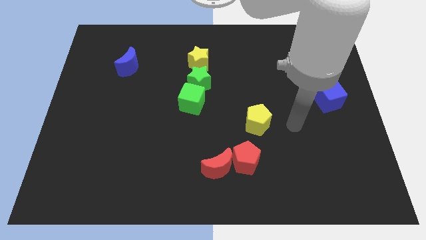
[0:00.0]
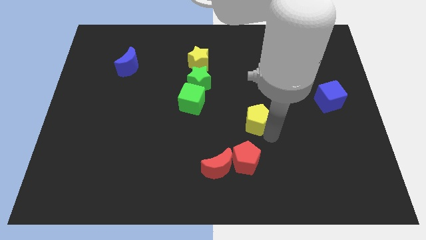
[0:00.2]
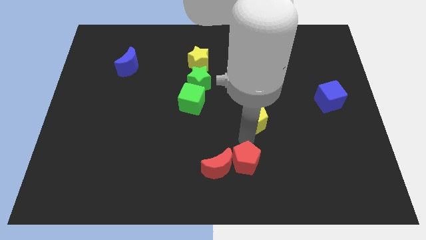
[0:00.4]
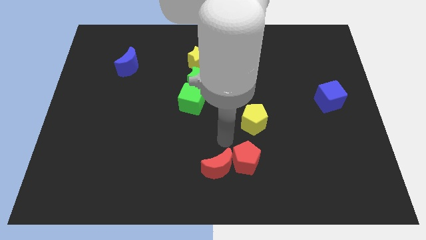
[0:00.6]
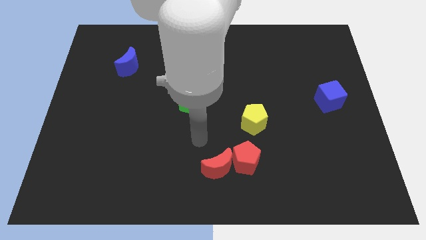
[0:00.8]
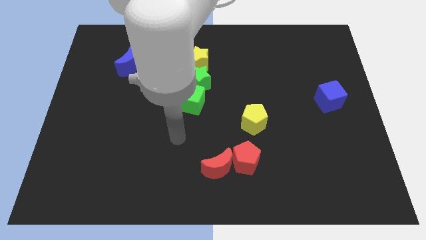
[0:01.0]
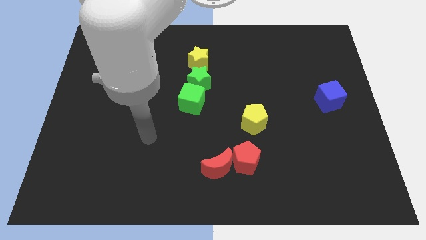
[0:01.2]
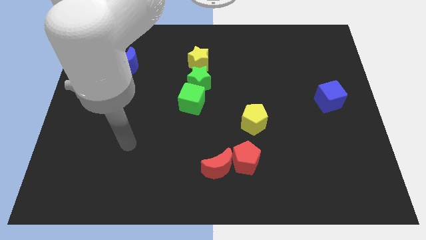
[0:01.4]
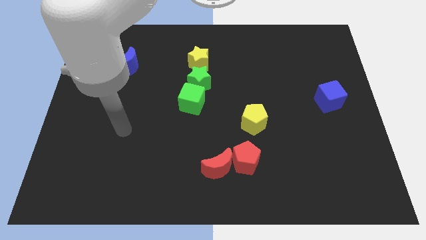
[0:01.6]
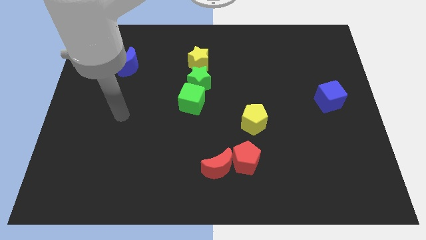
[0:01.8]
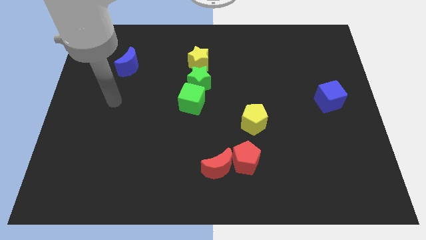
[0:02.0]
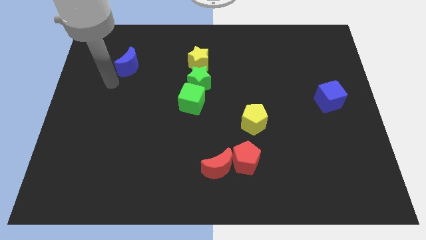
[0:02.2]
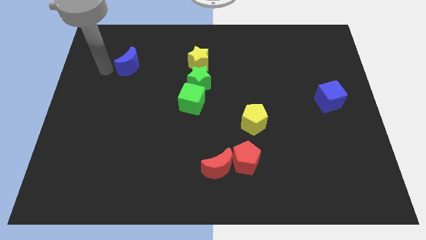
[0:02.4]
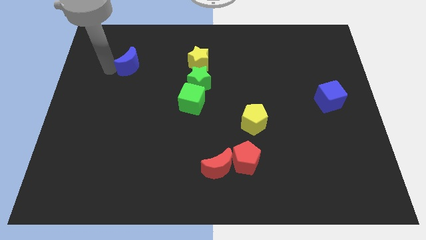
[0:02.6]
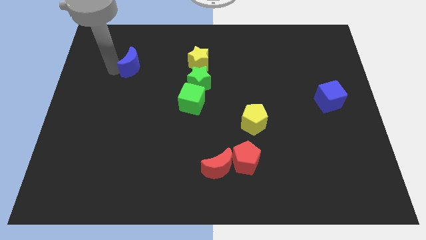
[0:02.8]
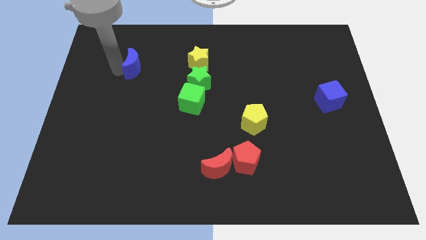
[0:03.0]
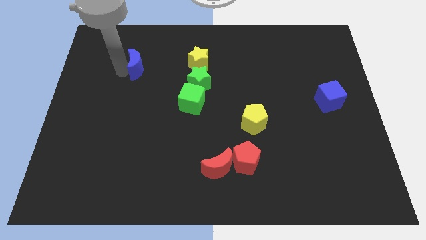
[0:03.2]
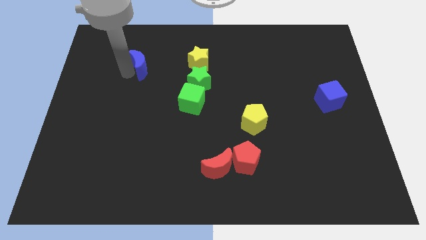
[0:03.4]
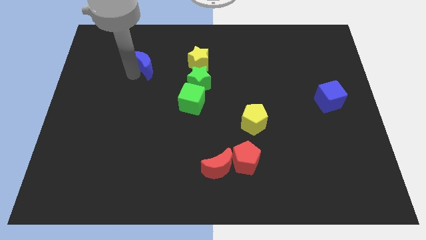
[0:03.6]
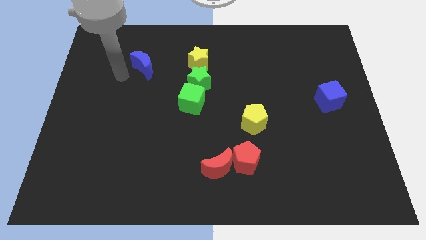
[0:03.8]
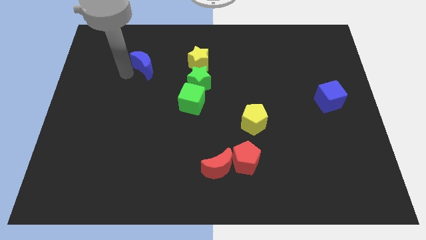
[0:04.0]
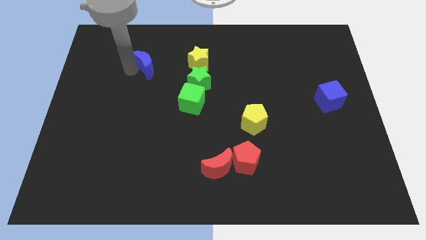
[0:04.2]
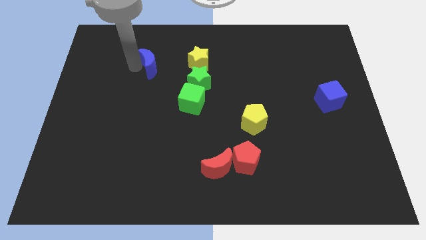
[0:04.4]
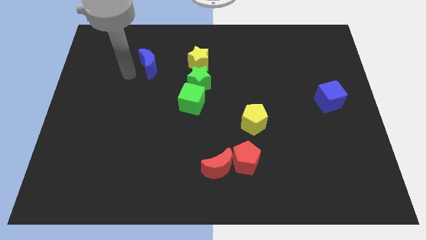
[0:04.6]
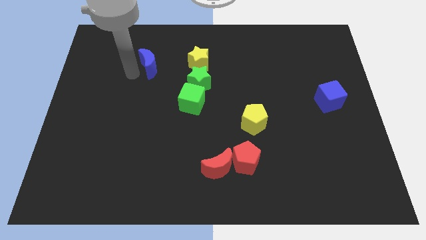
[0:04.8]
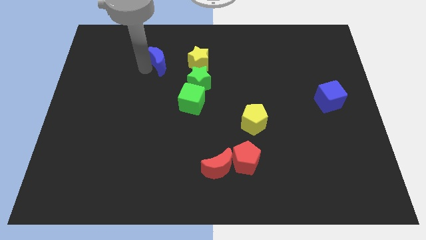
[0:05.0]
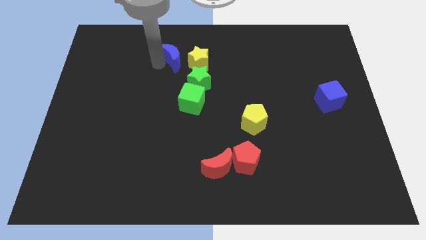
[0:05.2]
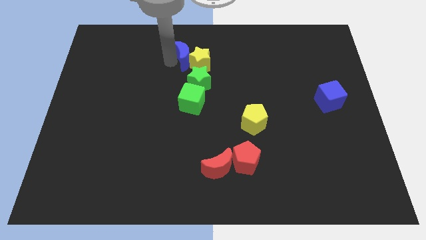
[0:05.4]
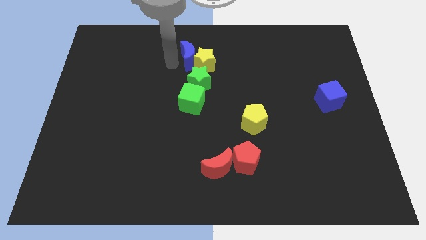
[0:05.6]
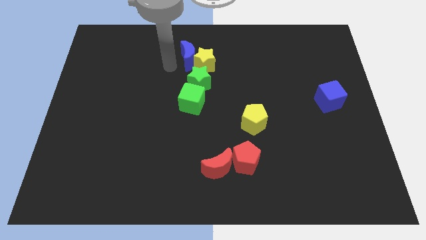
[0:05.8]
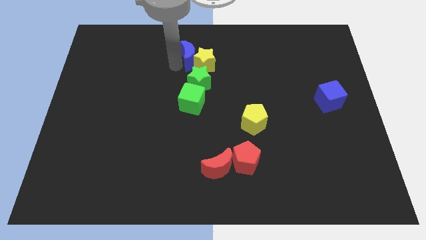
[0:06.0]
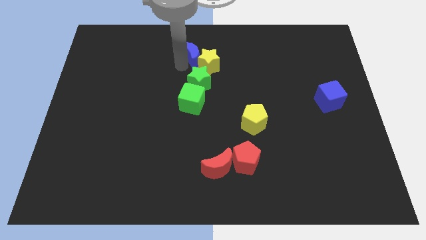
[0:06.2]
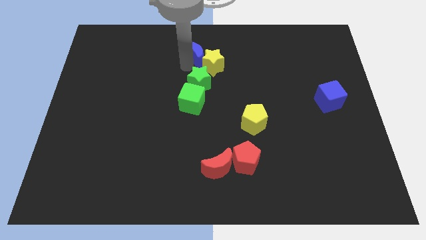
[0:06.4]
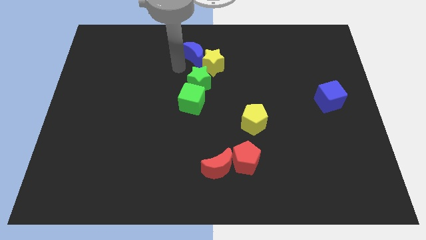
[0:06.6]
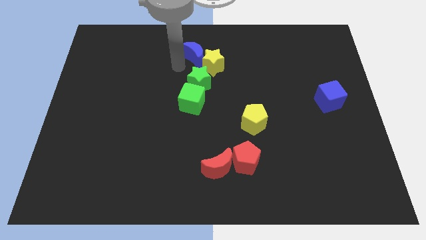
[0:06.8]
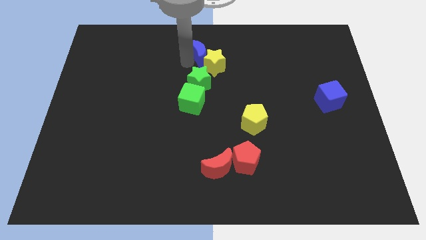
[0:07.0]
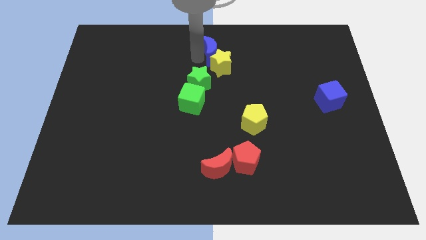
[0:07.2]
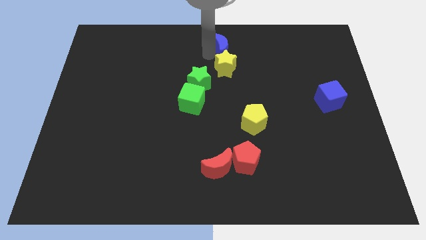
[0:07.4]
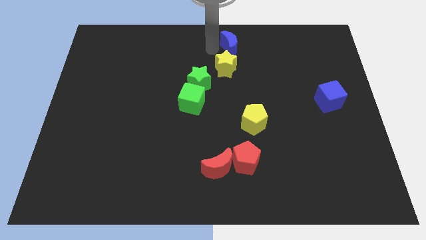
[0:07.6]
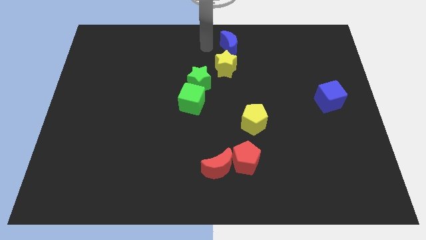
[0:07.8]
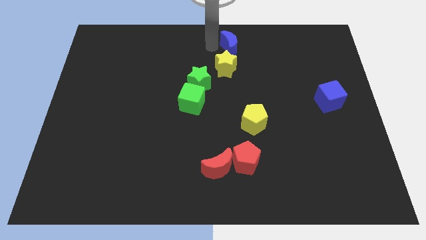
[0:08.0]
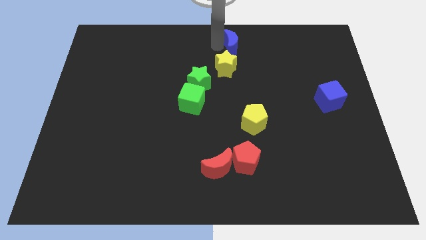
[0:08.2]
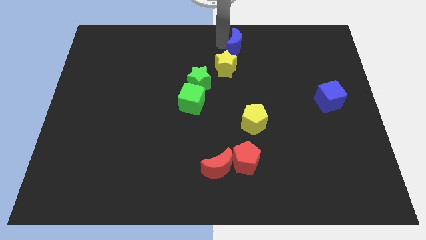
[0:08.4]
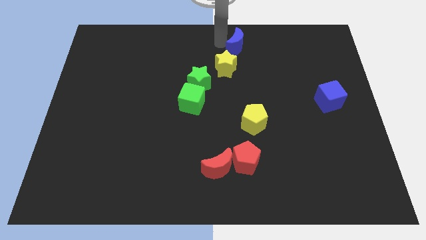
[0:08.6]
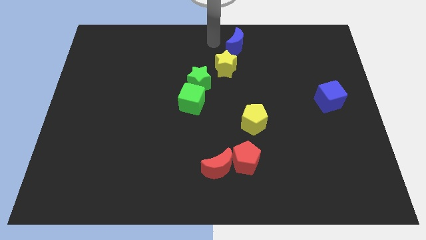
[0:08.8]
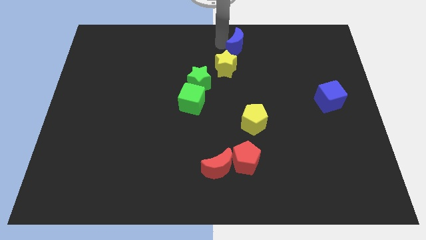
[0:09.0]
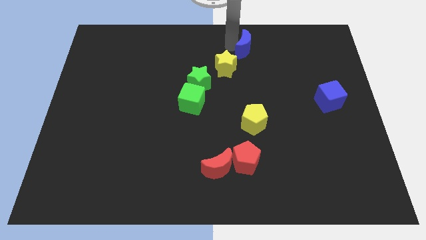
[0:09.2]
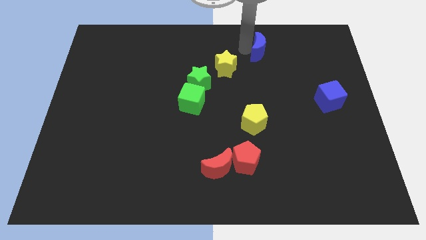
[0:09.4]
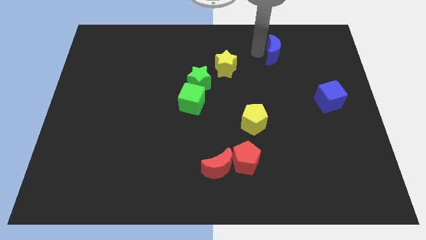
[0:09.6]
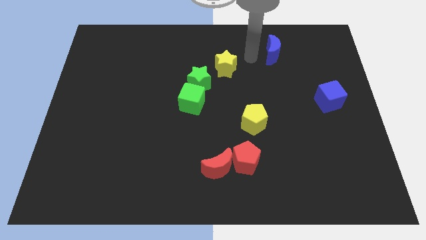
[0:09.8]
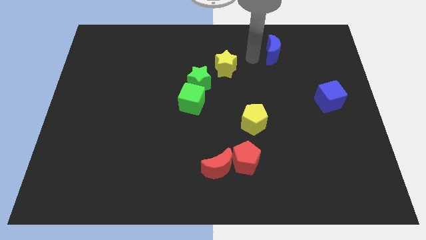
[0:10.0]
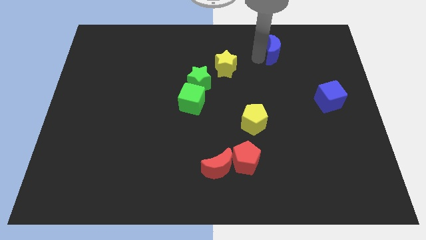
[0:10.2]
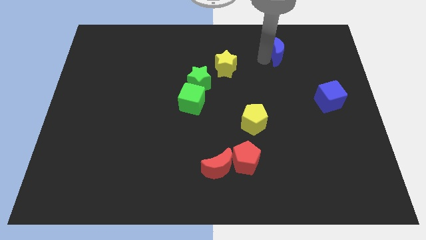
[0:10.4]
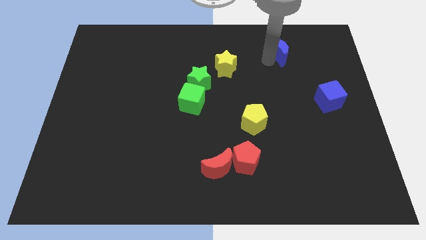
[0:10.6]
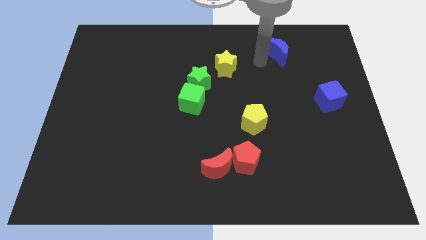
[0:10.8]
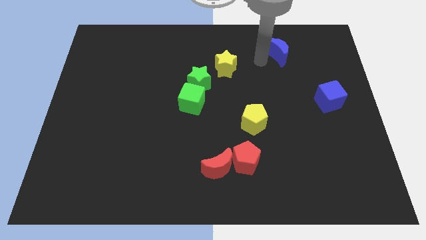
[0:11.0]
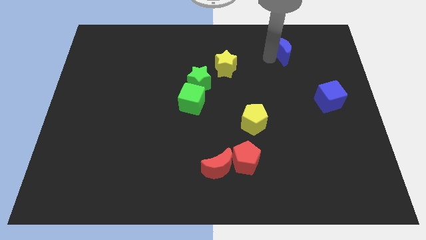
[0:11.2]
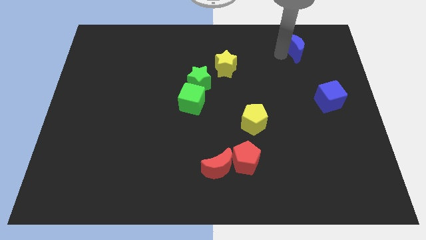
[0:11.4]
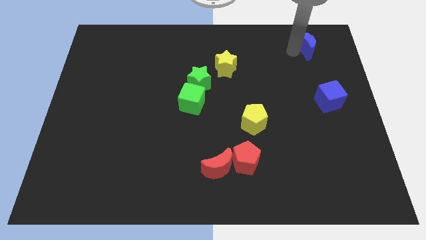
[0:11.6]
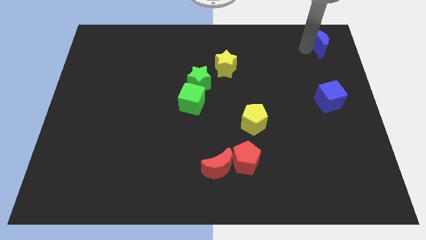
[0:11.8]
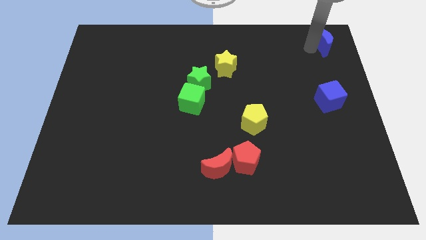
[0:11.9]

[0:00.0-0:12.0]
put the blue moon to the upper right corner
